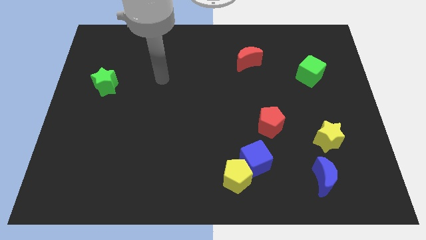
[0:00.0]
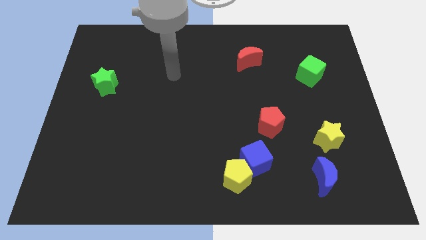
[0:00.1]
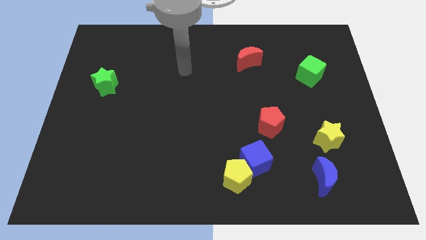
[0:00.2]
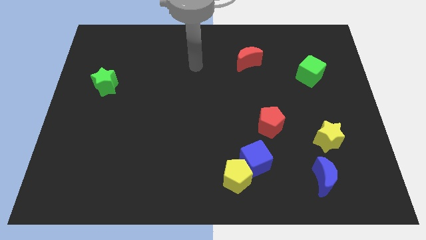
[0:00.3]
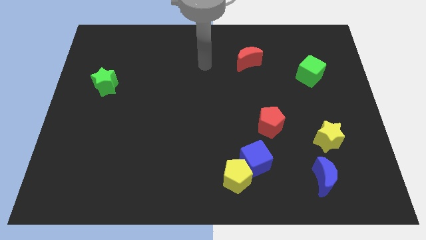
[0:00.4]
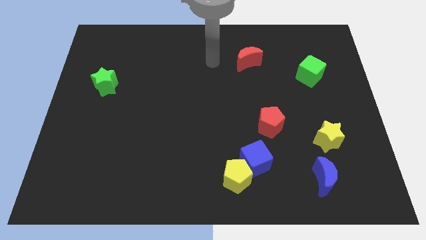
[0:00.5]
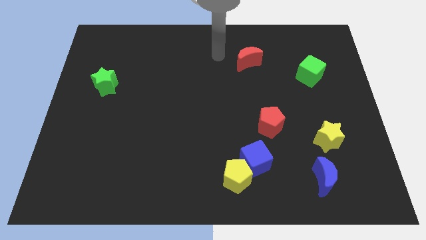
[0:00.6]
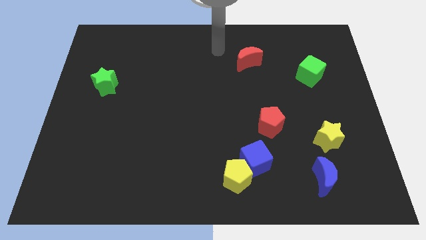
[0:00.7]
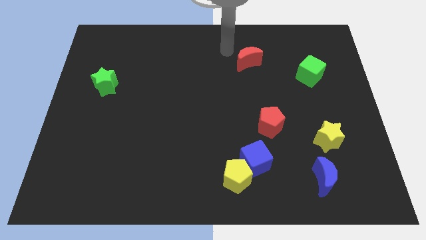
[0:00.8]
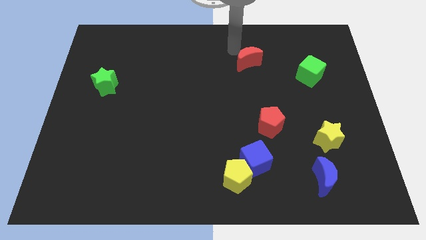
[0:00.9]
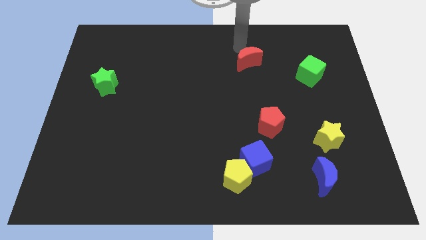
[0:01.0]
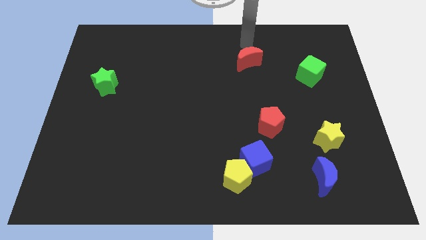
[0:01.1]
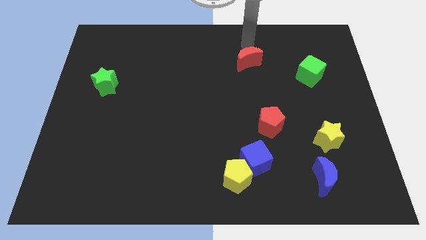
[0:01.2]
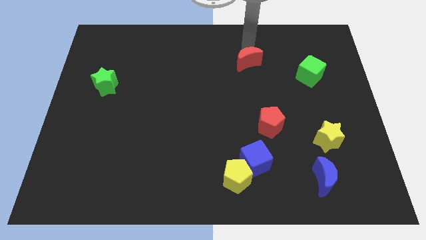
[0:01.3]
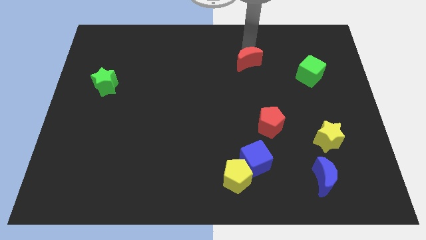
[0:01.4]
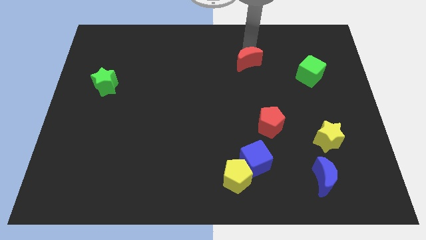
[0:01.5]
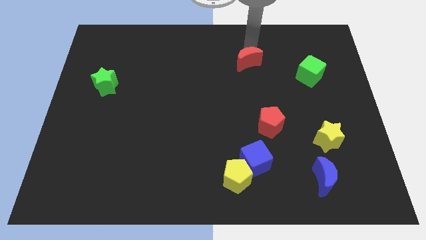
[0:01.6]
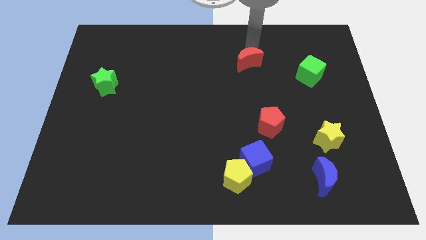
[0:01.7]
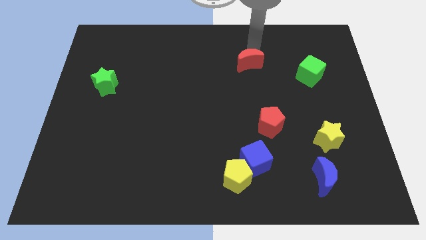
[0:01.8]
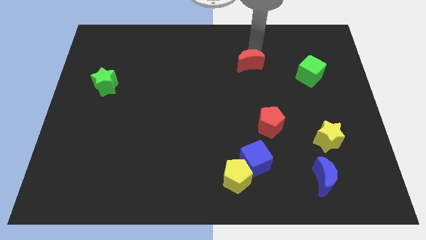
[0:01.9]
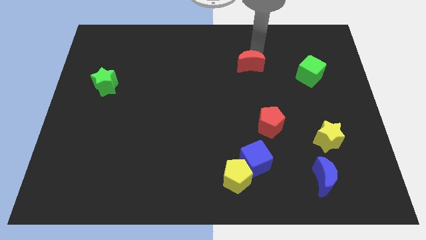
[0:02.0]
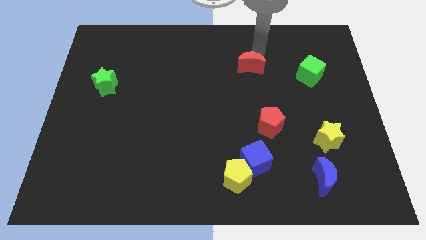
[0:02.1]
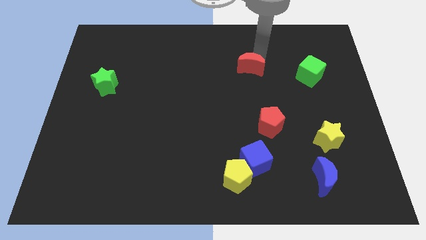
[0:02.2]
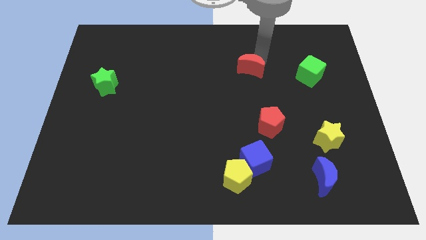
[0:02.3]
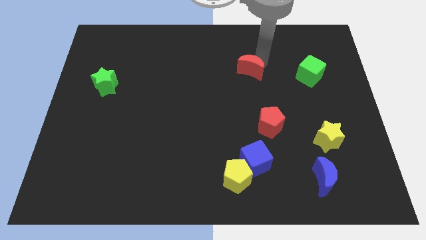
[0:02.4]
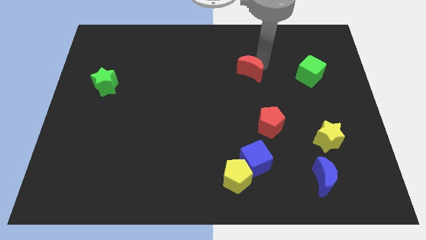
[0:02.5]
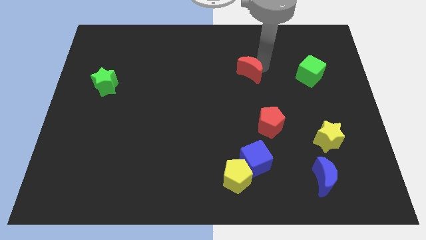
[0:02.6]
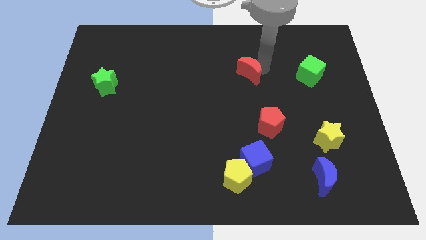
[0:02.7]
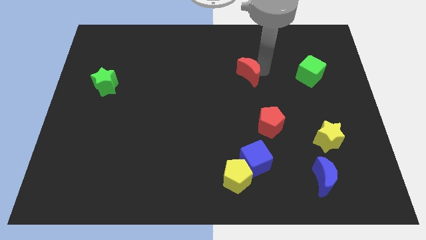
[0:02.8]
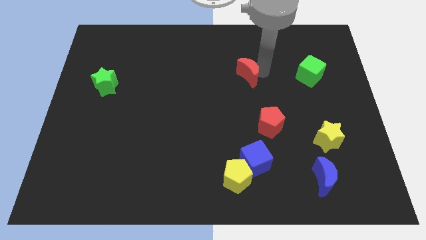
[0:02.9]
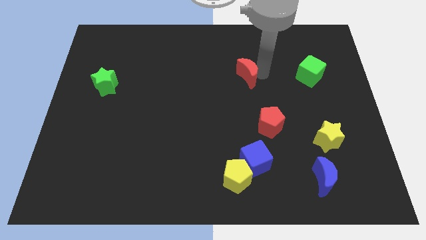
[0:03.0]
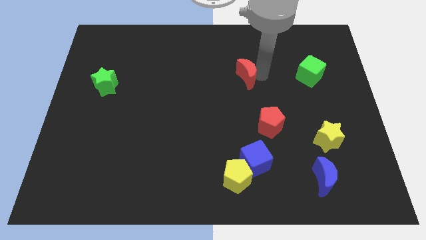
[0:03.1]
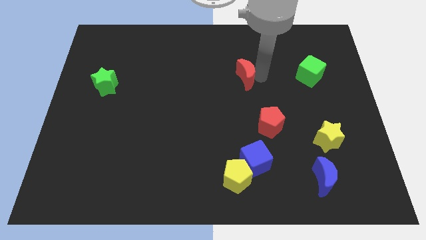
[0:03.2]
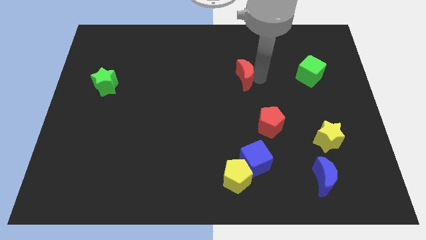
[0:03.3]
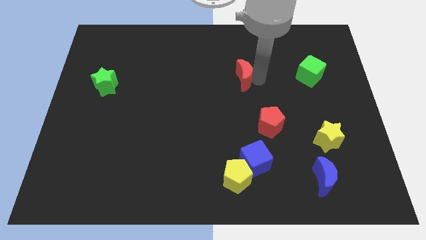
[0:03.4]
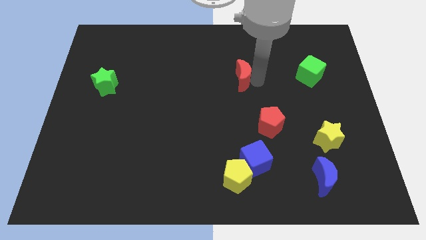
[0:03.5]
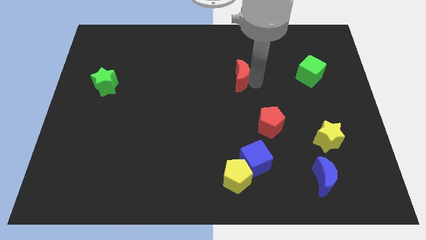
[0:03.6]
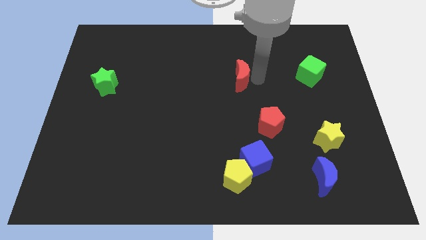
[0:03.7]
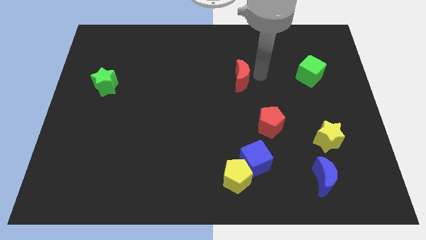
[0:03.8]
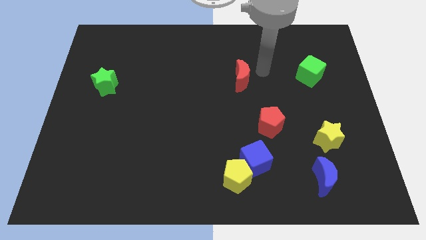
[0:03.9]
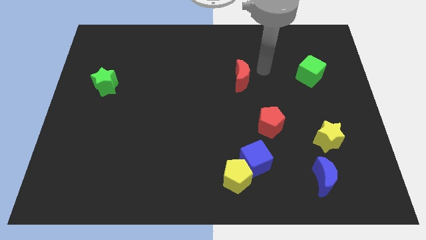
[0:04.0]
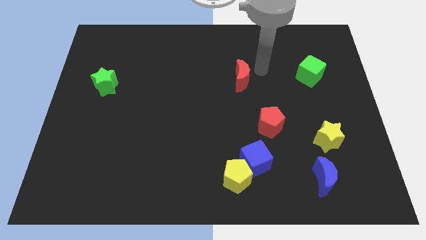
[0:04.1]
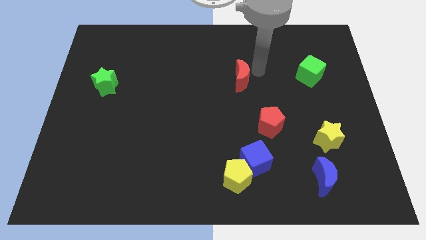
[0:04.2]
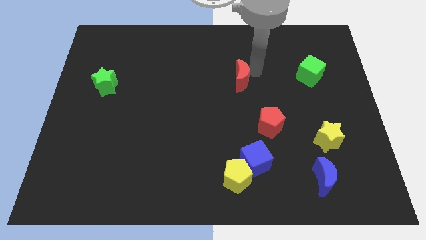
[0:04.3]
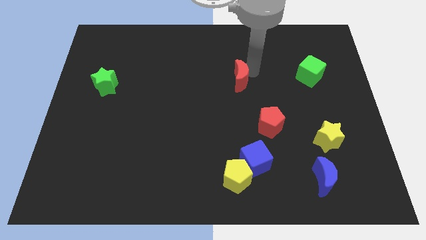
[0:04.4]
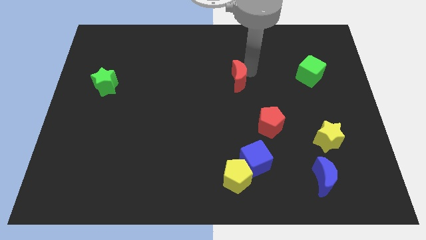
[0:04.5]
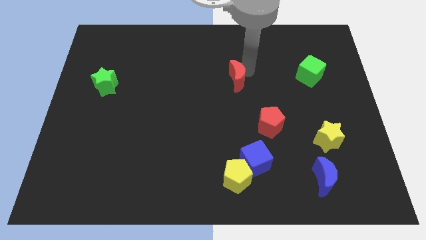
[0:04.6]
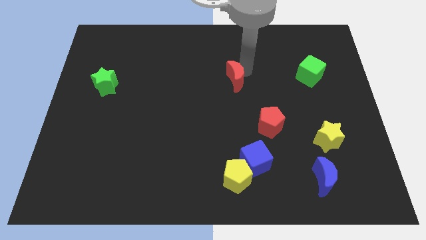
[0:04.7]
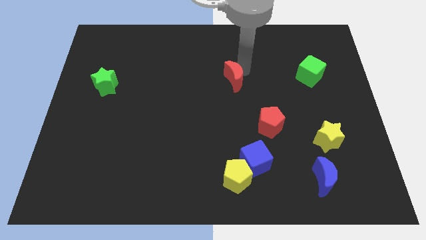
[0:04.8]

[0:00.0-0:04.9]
slightly push the red moon downwards and to the left

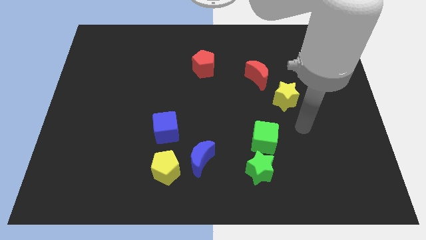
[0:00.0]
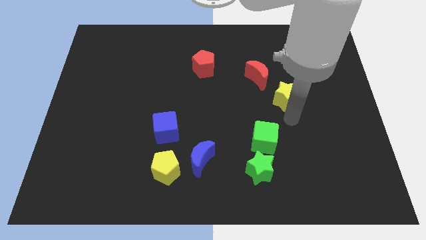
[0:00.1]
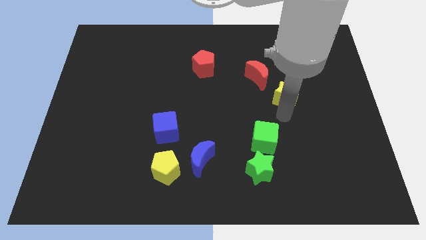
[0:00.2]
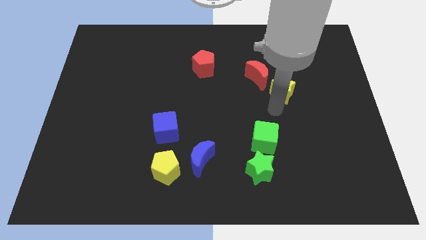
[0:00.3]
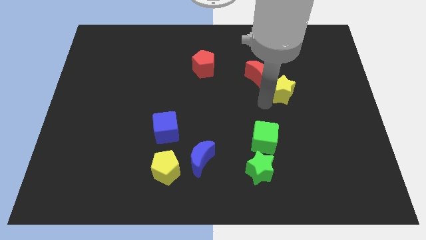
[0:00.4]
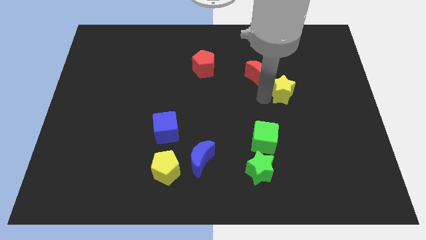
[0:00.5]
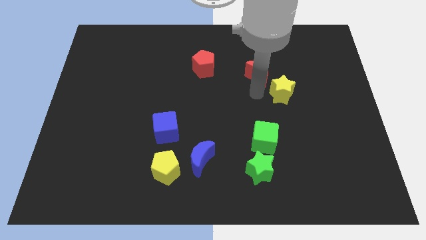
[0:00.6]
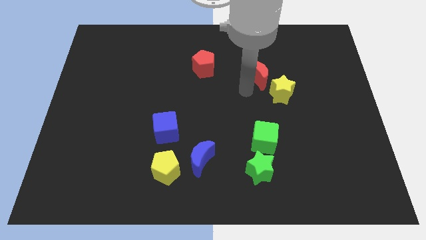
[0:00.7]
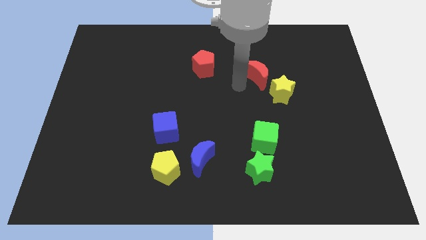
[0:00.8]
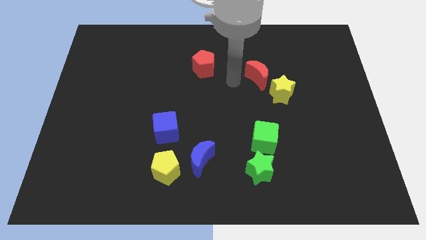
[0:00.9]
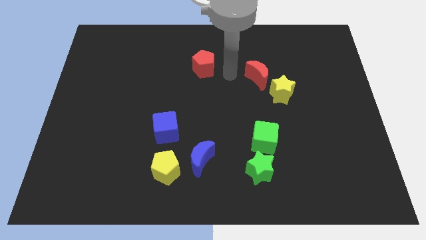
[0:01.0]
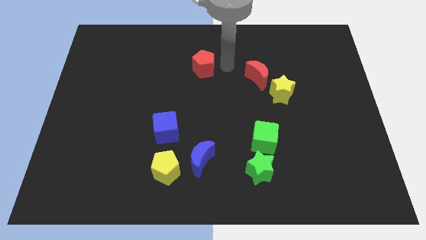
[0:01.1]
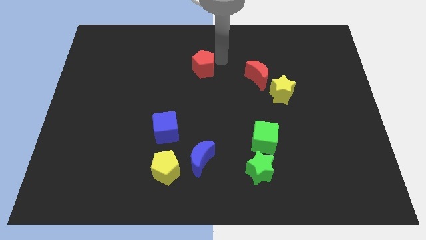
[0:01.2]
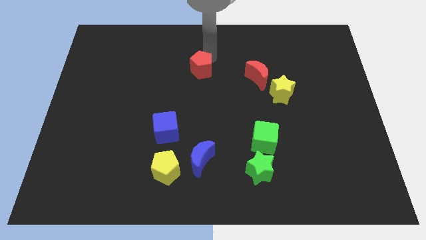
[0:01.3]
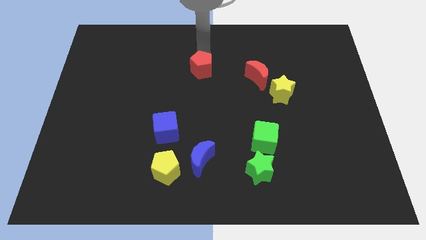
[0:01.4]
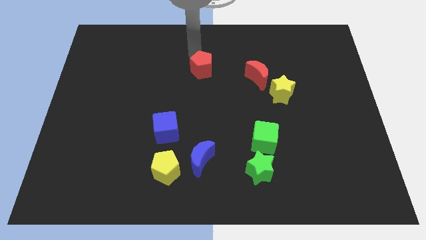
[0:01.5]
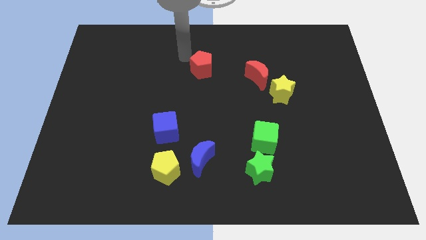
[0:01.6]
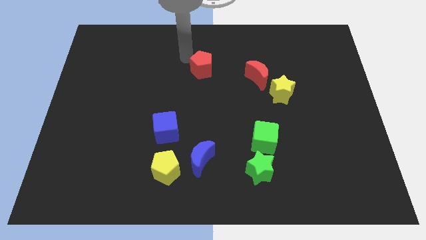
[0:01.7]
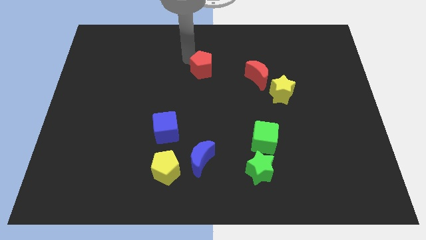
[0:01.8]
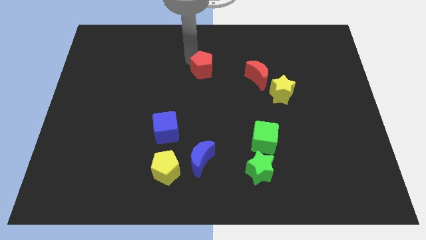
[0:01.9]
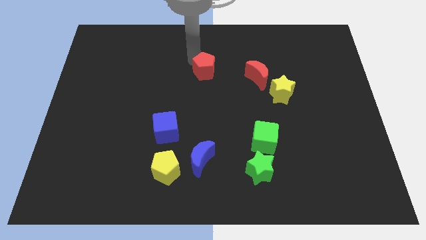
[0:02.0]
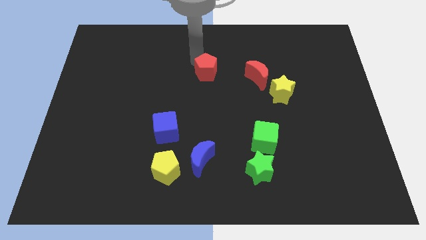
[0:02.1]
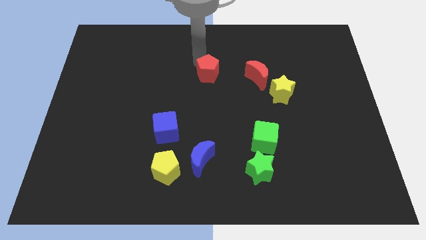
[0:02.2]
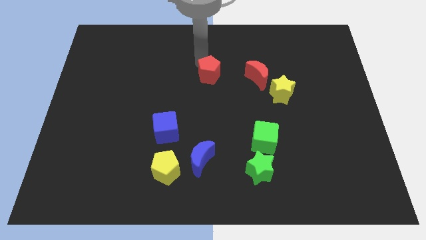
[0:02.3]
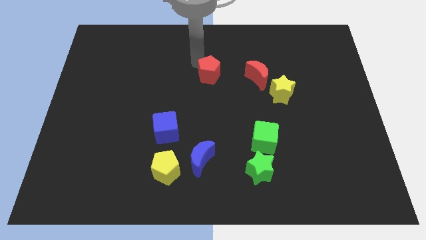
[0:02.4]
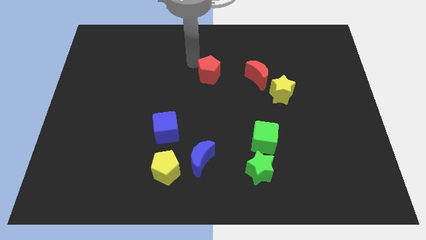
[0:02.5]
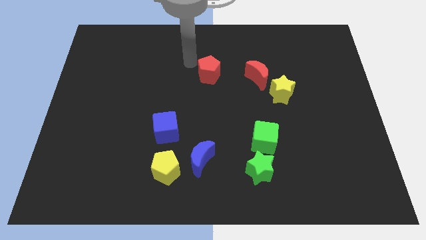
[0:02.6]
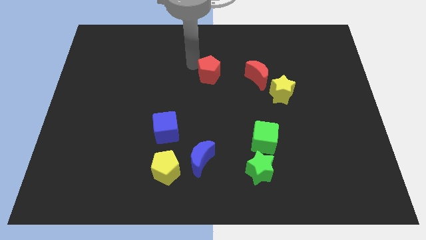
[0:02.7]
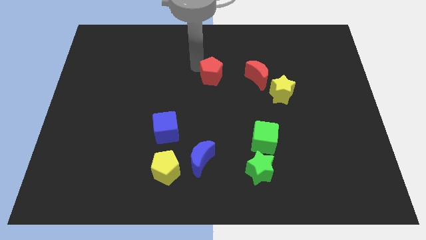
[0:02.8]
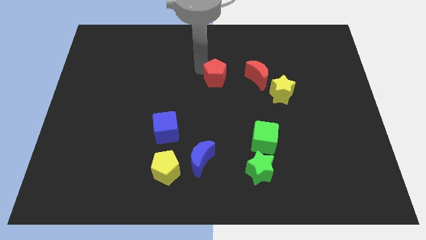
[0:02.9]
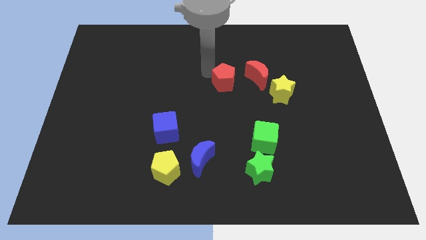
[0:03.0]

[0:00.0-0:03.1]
slightly push the red pentagon diagonally down and to the right
